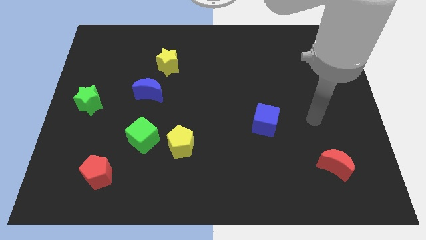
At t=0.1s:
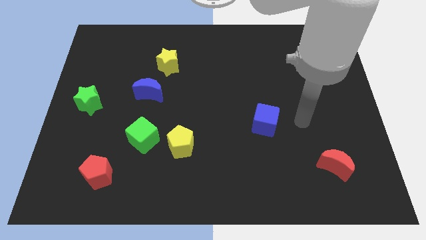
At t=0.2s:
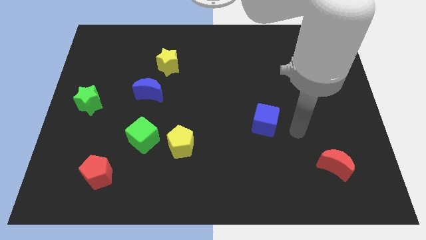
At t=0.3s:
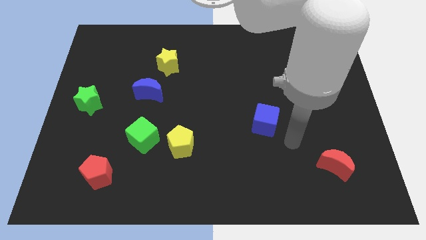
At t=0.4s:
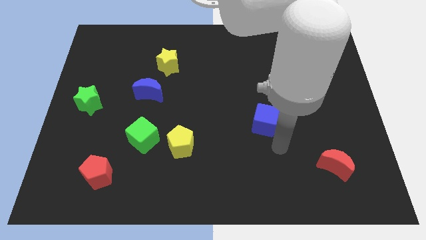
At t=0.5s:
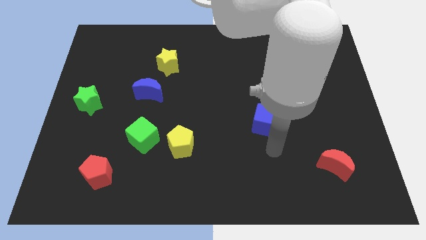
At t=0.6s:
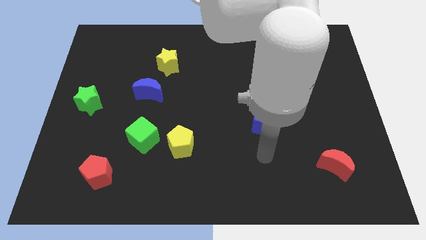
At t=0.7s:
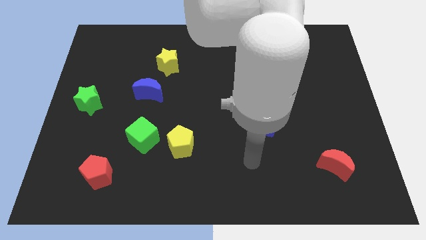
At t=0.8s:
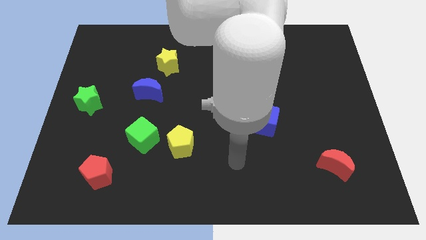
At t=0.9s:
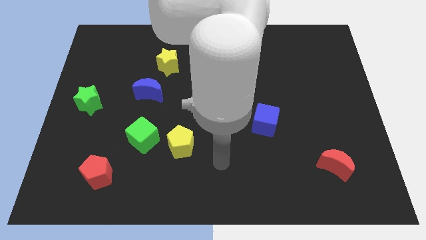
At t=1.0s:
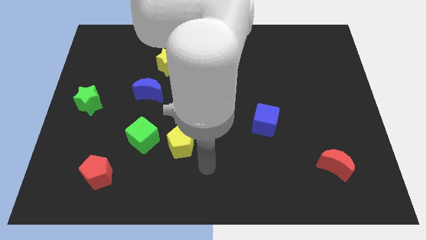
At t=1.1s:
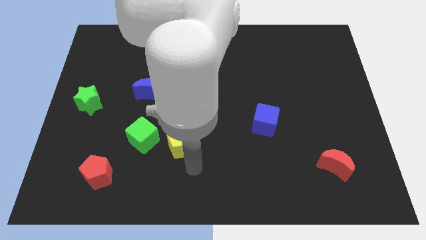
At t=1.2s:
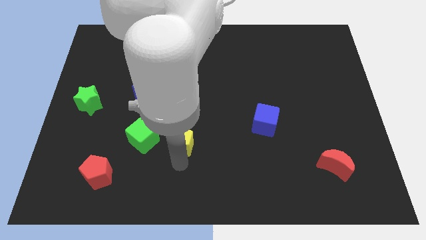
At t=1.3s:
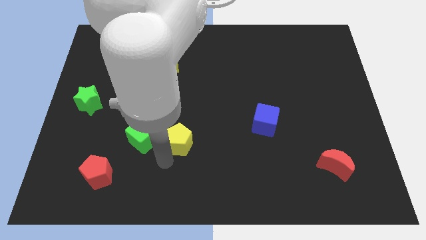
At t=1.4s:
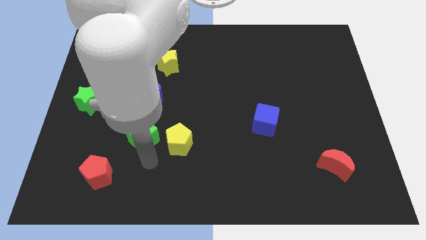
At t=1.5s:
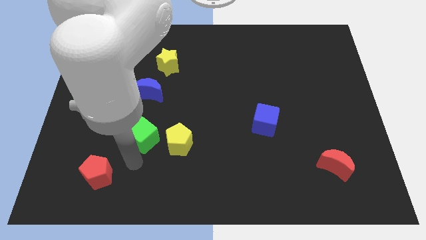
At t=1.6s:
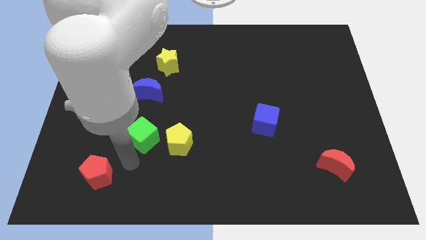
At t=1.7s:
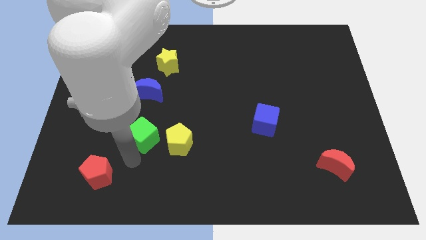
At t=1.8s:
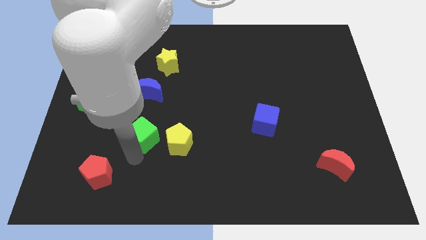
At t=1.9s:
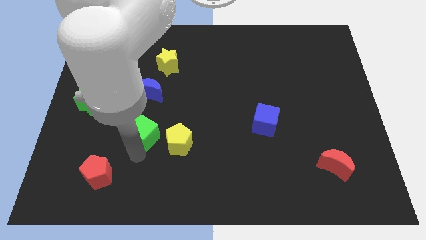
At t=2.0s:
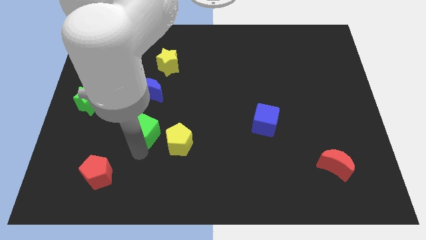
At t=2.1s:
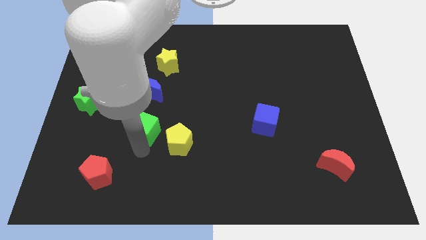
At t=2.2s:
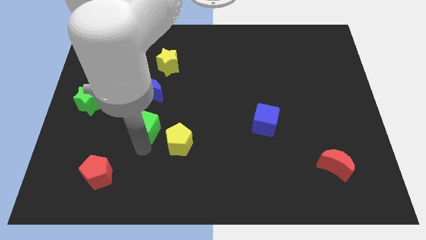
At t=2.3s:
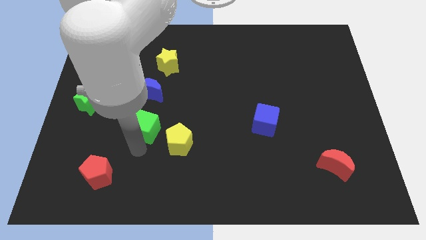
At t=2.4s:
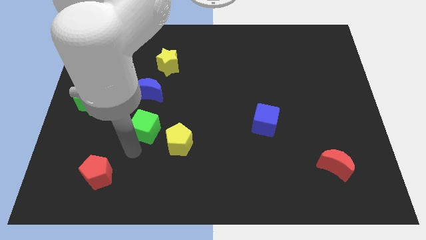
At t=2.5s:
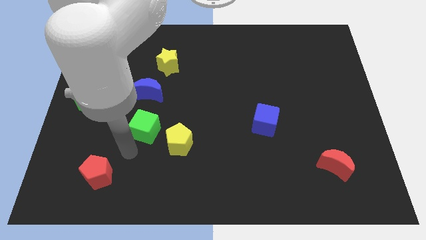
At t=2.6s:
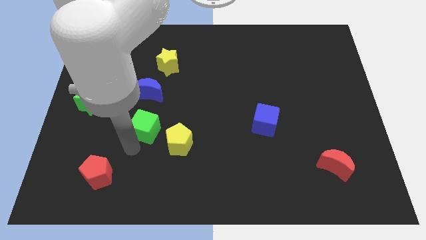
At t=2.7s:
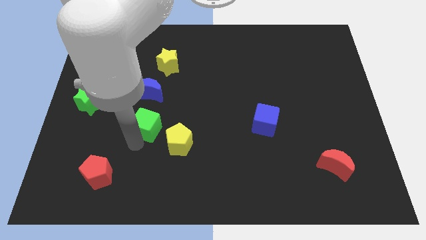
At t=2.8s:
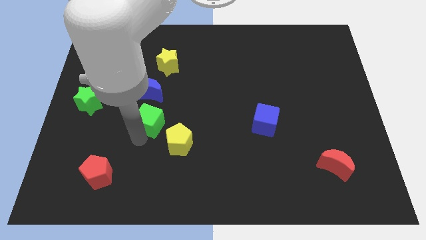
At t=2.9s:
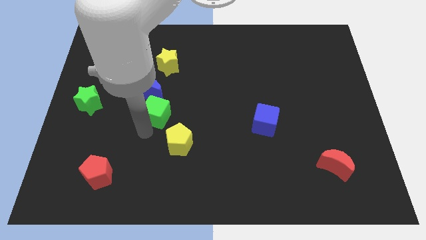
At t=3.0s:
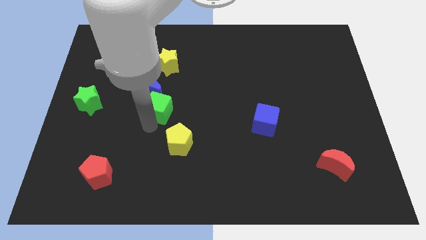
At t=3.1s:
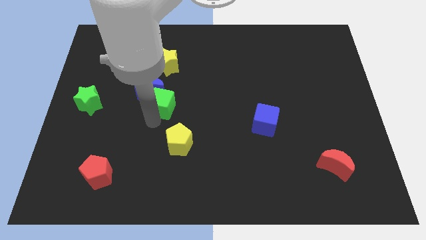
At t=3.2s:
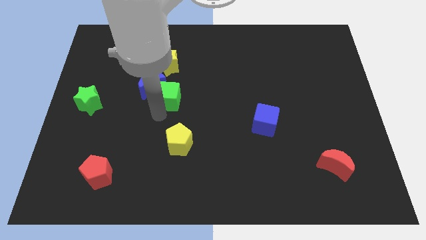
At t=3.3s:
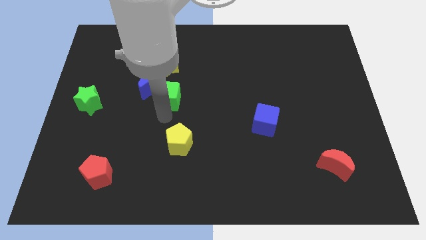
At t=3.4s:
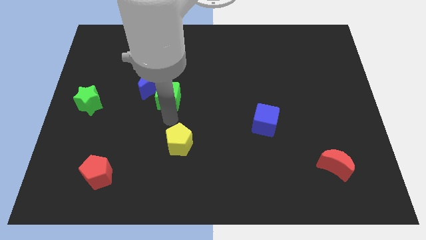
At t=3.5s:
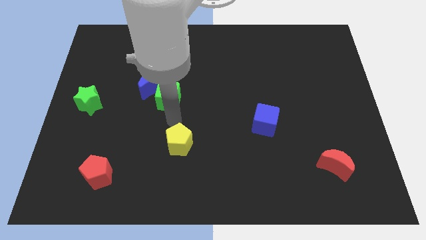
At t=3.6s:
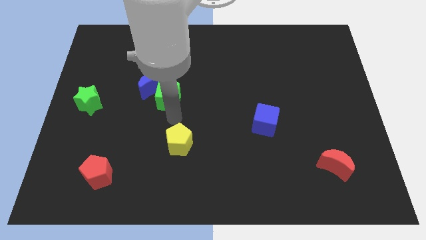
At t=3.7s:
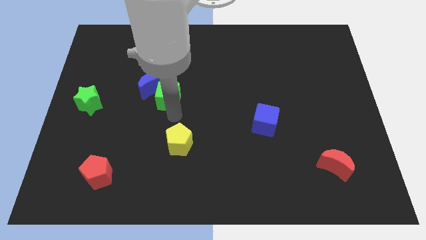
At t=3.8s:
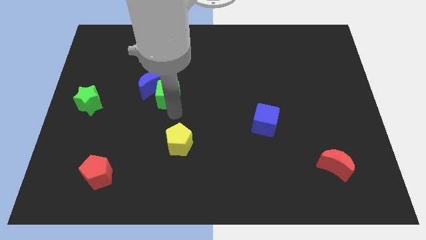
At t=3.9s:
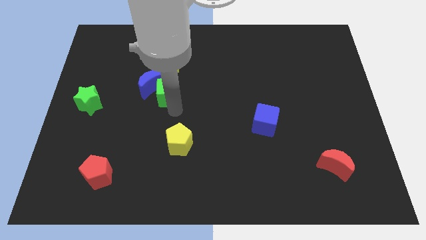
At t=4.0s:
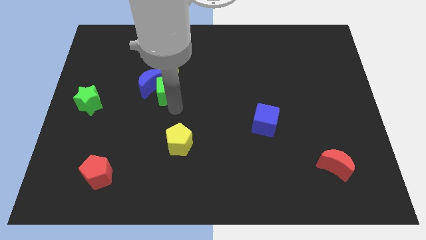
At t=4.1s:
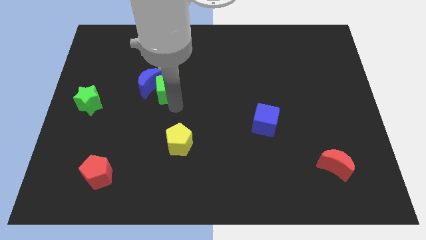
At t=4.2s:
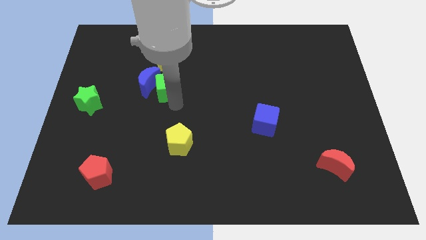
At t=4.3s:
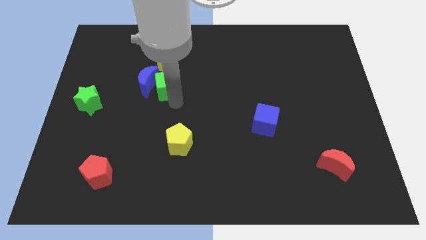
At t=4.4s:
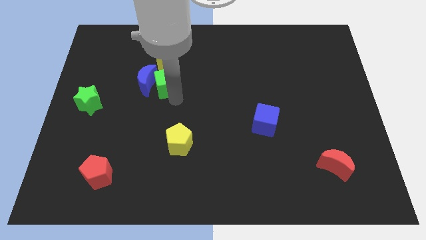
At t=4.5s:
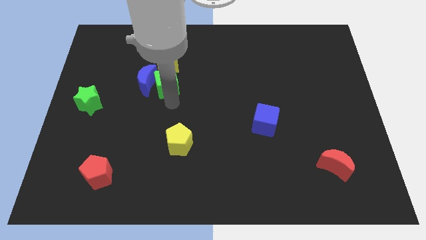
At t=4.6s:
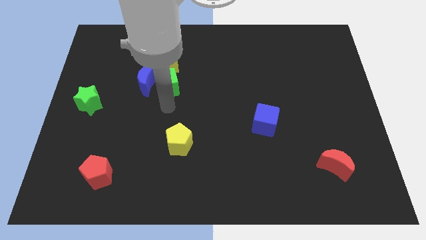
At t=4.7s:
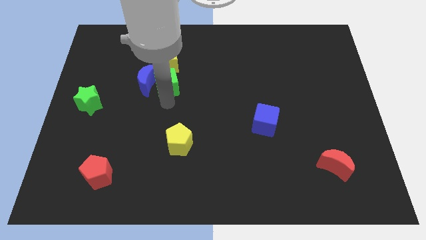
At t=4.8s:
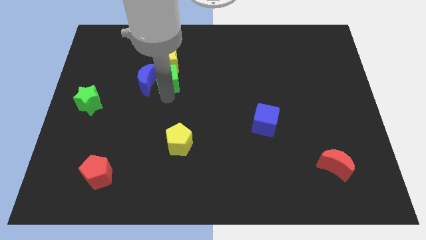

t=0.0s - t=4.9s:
slide the green cube towards the yellow star

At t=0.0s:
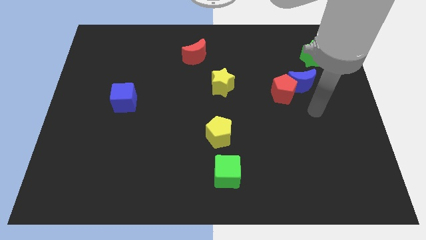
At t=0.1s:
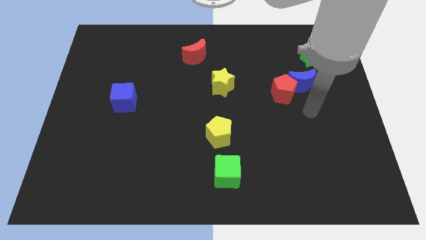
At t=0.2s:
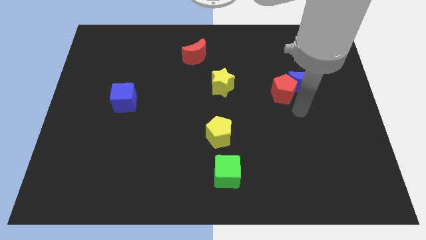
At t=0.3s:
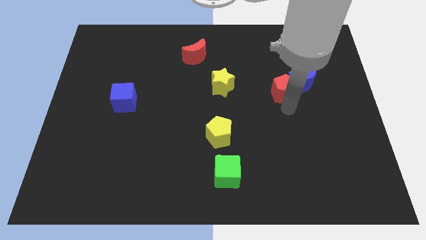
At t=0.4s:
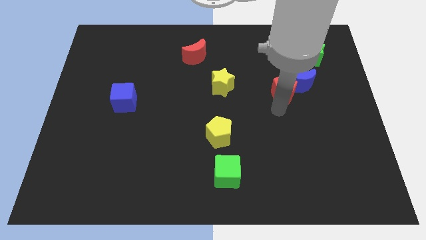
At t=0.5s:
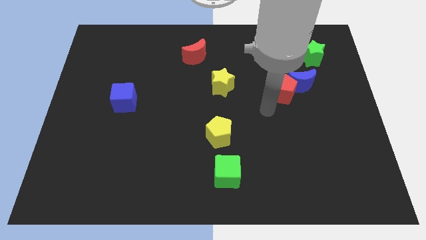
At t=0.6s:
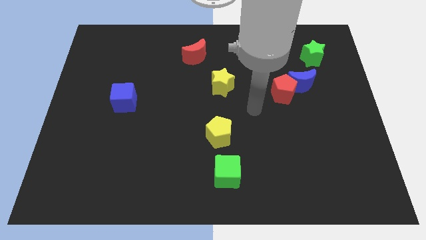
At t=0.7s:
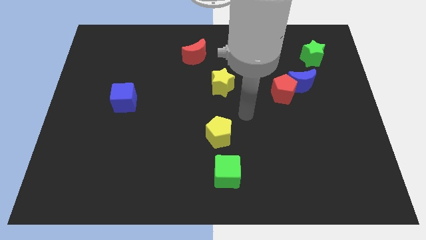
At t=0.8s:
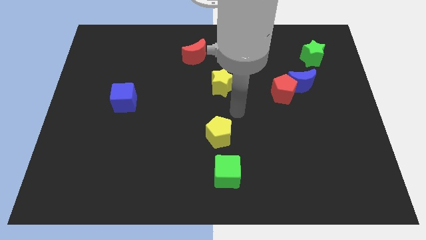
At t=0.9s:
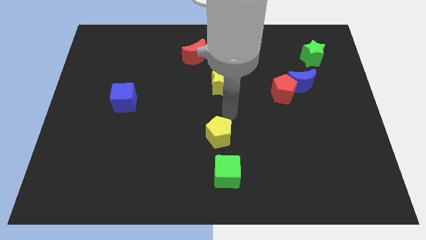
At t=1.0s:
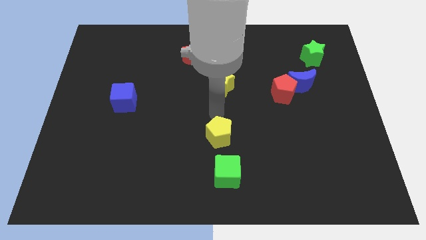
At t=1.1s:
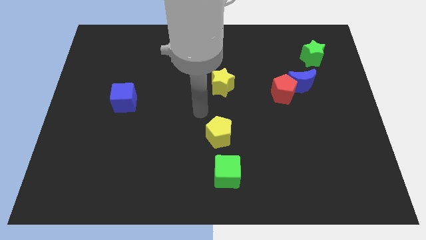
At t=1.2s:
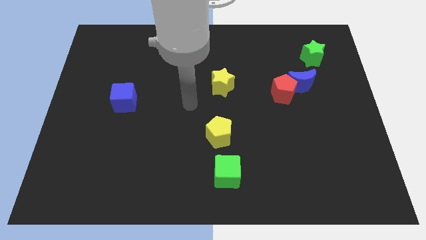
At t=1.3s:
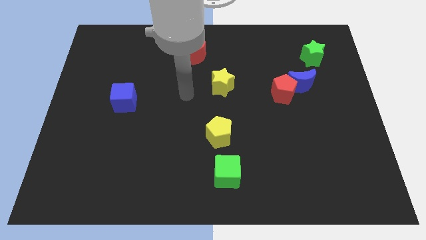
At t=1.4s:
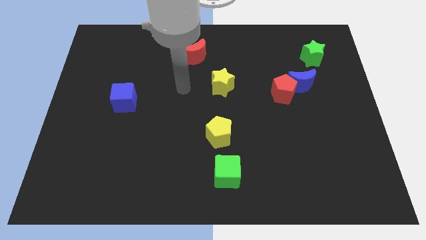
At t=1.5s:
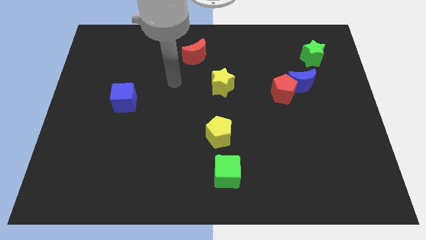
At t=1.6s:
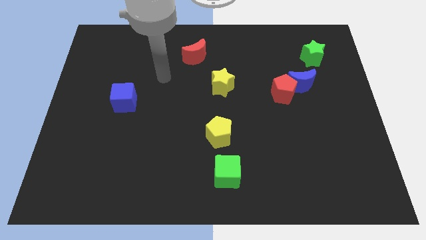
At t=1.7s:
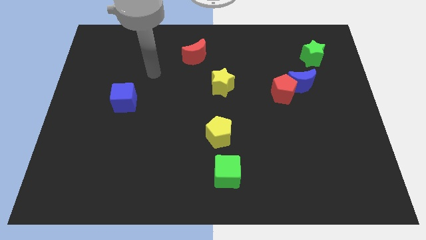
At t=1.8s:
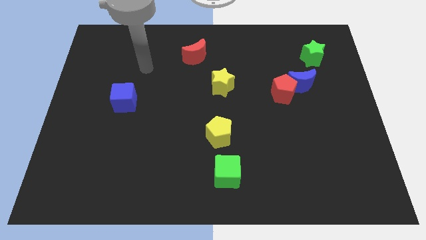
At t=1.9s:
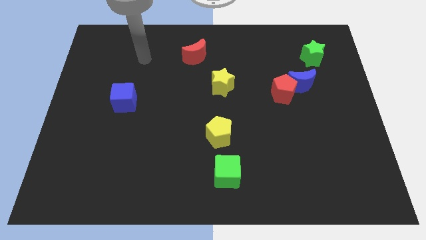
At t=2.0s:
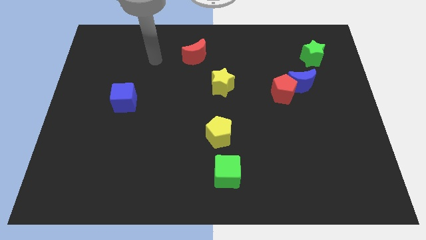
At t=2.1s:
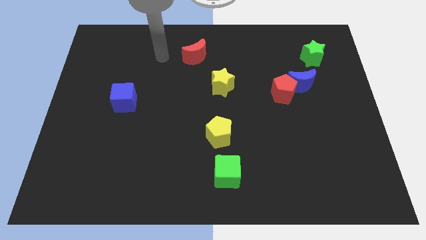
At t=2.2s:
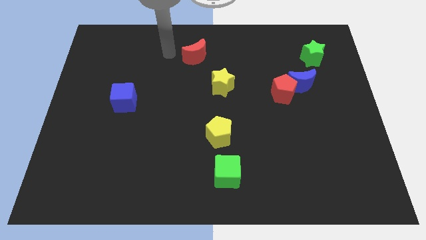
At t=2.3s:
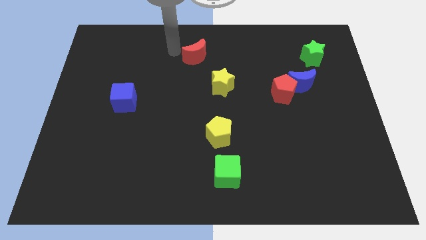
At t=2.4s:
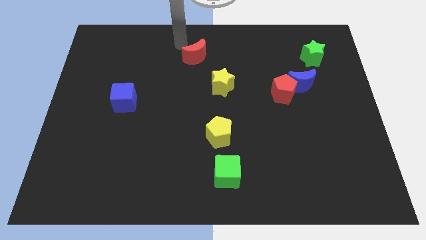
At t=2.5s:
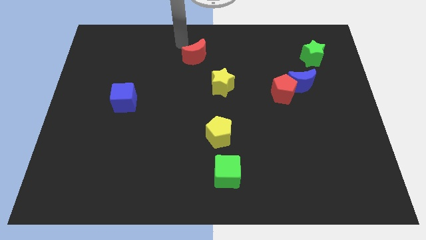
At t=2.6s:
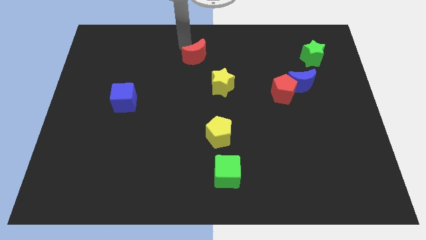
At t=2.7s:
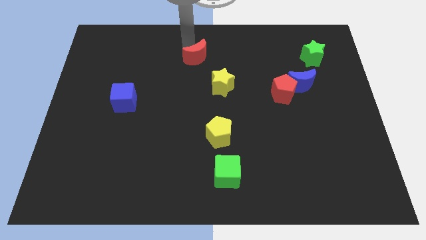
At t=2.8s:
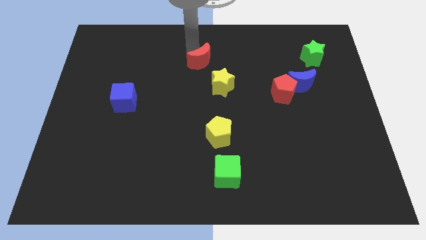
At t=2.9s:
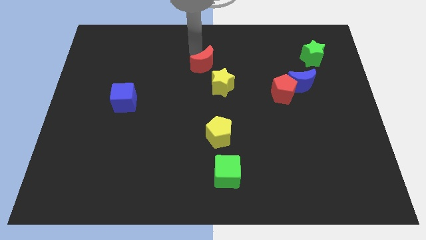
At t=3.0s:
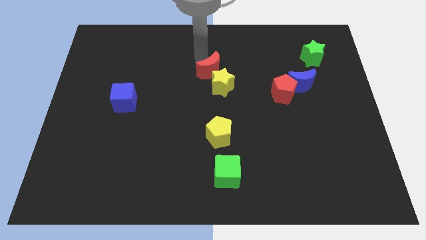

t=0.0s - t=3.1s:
move the red moon to the yellow star
